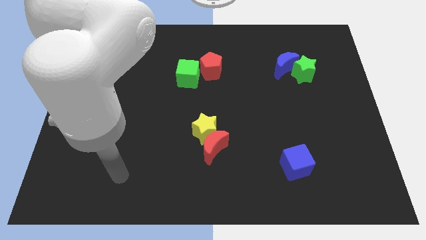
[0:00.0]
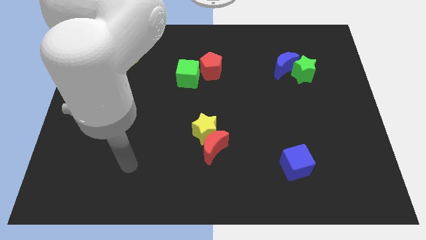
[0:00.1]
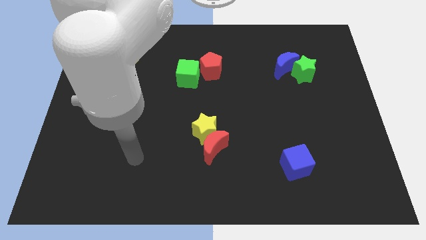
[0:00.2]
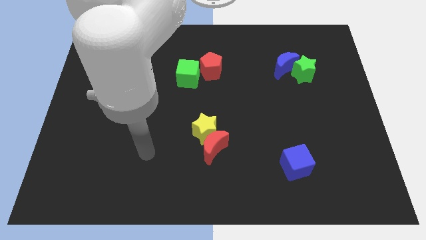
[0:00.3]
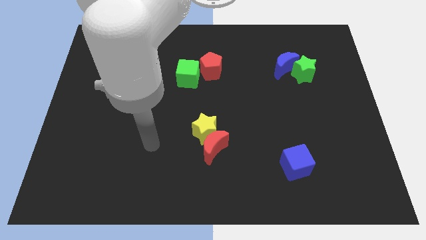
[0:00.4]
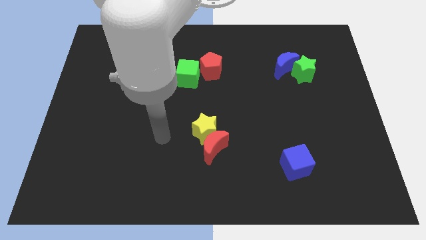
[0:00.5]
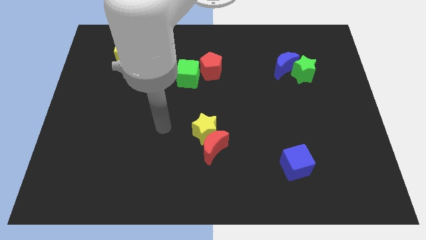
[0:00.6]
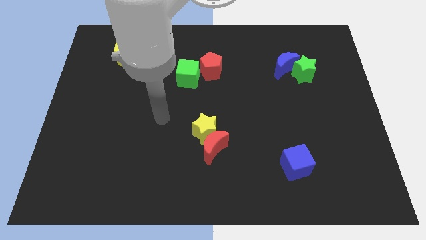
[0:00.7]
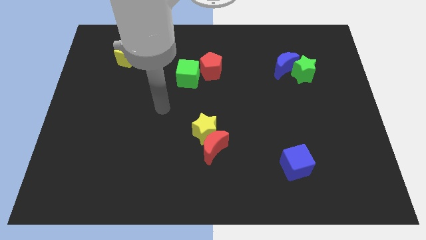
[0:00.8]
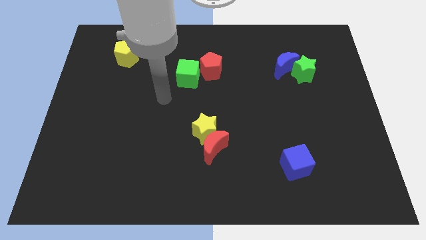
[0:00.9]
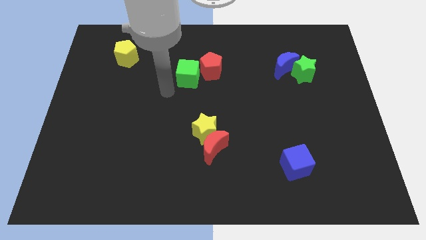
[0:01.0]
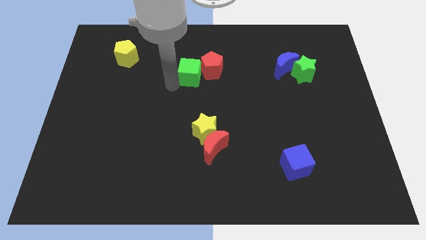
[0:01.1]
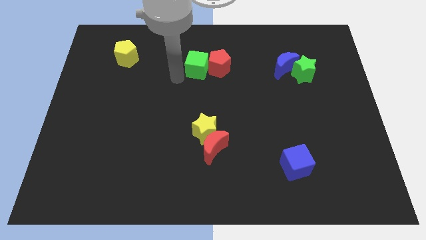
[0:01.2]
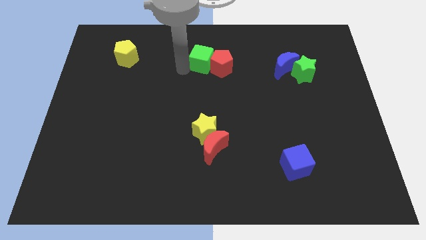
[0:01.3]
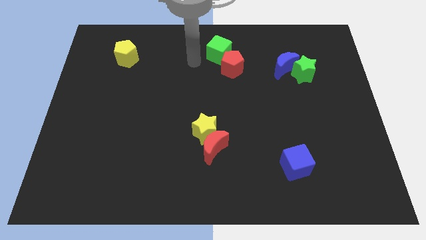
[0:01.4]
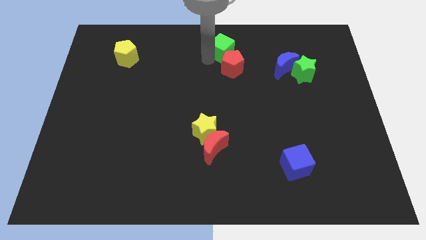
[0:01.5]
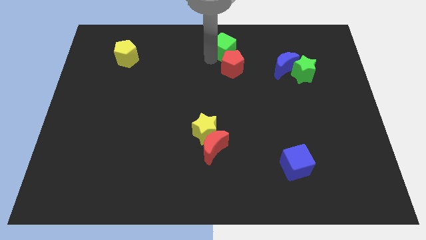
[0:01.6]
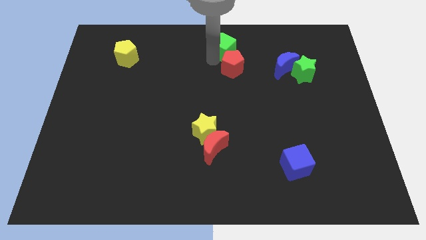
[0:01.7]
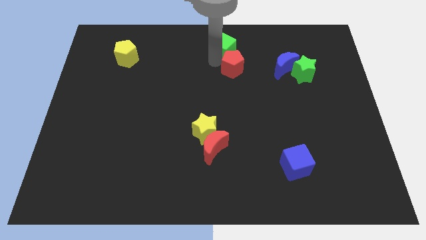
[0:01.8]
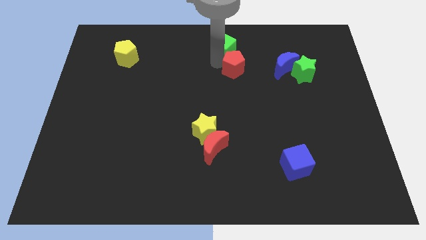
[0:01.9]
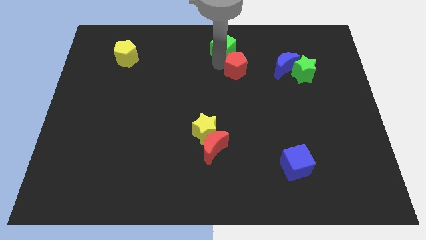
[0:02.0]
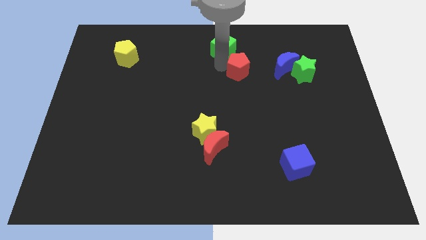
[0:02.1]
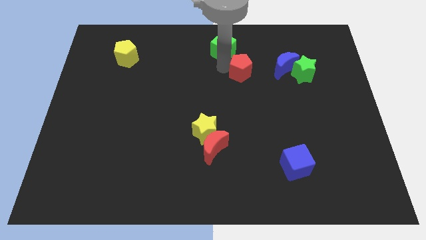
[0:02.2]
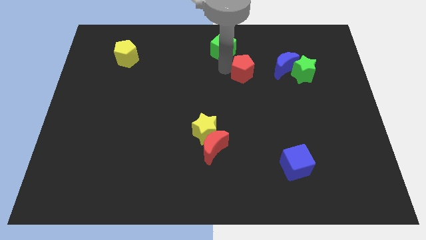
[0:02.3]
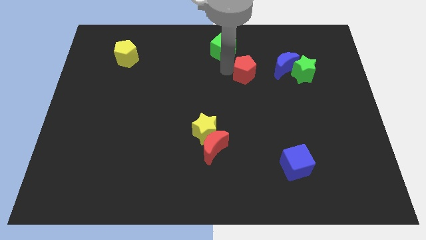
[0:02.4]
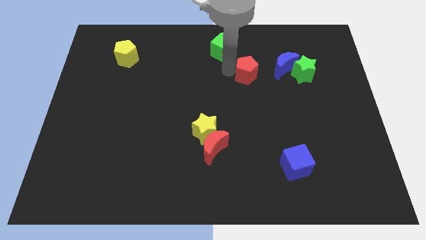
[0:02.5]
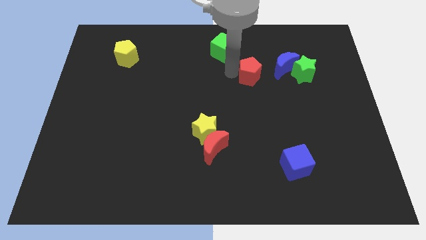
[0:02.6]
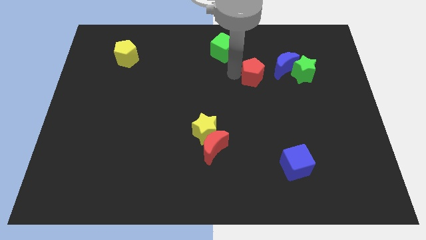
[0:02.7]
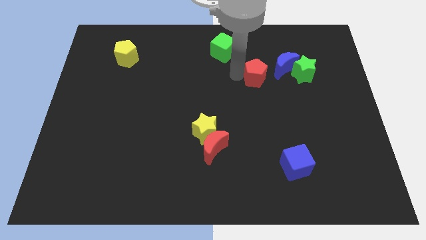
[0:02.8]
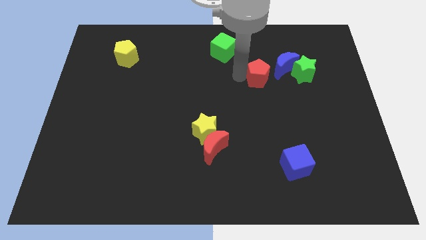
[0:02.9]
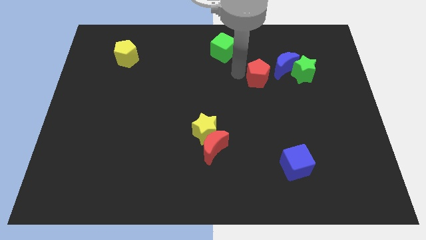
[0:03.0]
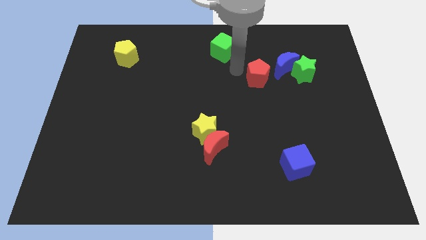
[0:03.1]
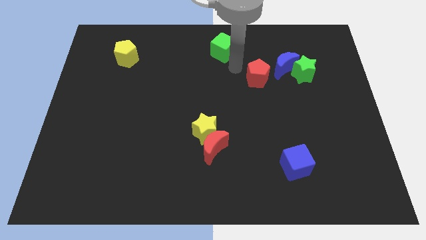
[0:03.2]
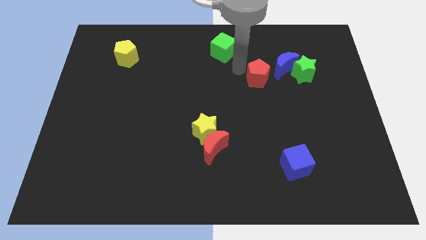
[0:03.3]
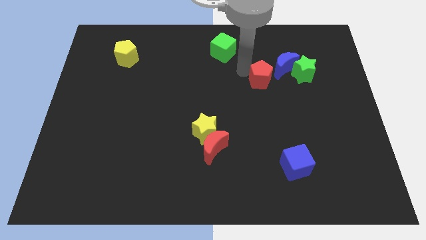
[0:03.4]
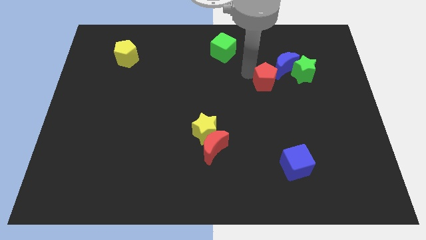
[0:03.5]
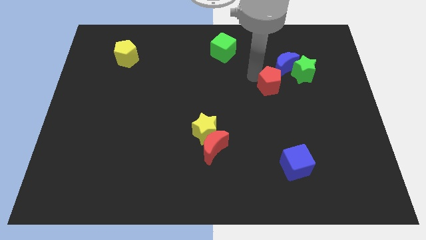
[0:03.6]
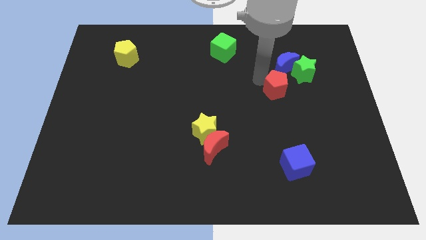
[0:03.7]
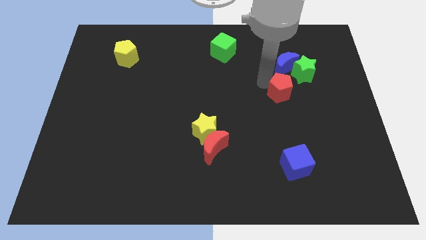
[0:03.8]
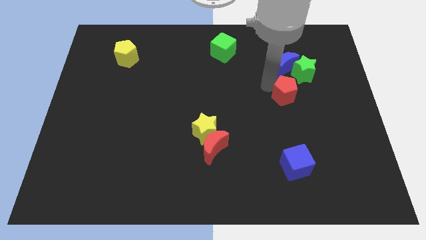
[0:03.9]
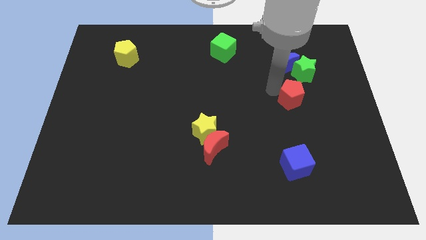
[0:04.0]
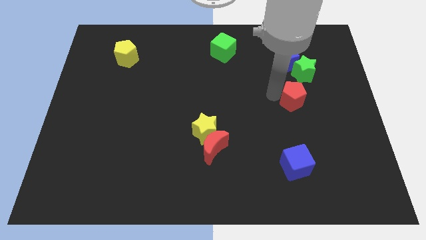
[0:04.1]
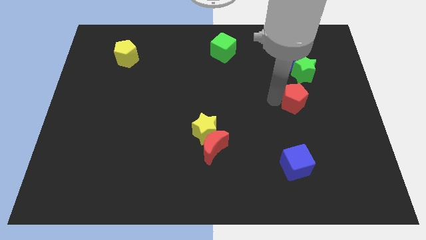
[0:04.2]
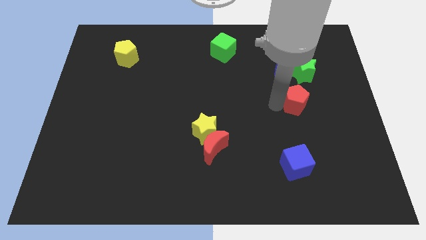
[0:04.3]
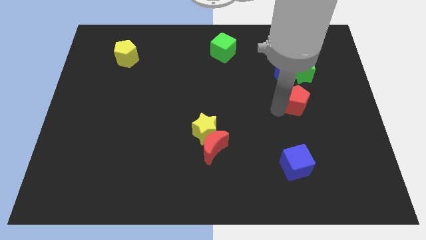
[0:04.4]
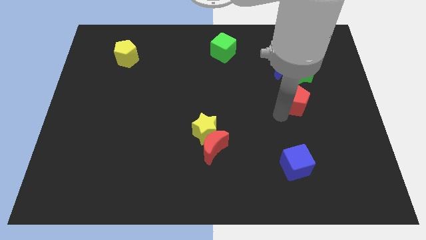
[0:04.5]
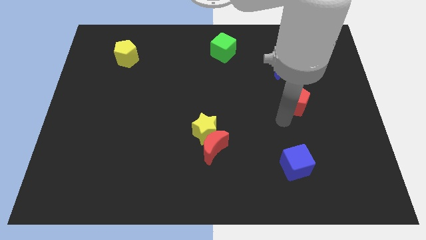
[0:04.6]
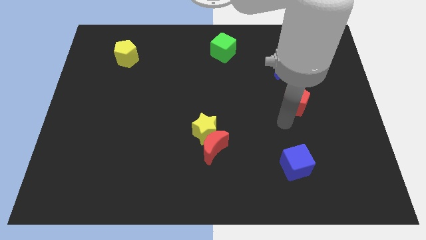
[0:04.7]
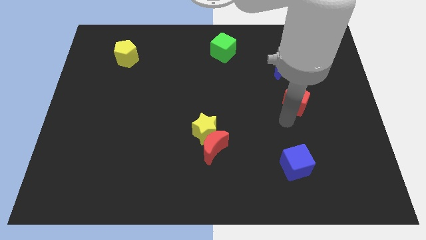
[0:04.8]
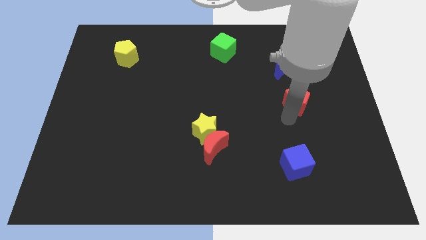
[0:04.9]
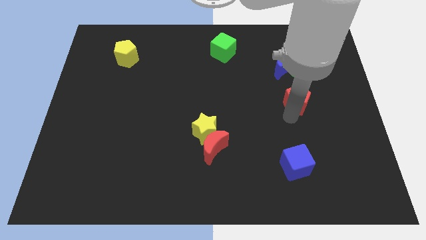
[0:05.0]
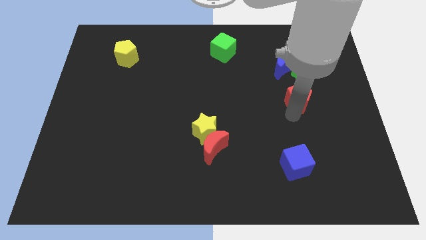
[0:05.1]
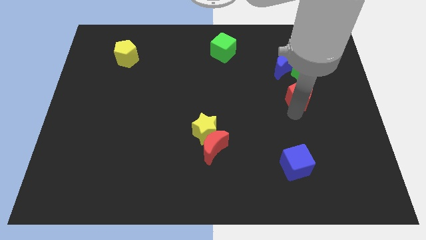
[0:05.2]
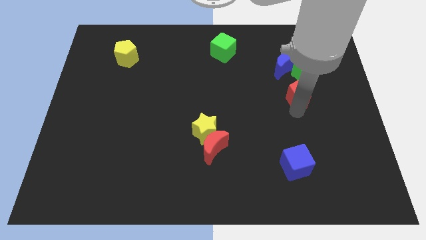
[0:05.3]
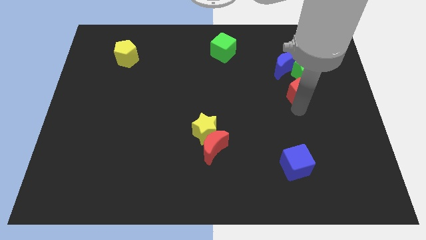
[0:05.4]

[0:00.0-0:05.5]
move the red pentagon diagonally down and to the right of the blue moon

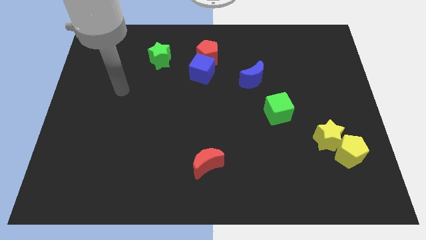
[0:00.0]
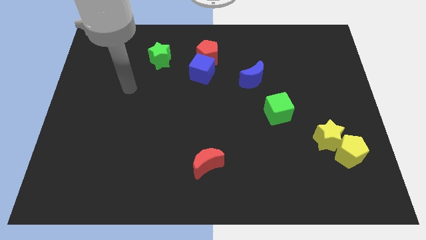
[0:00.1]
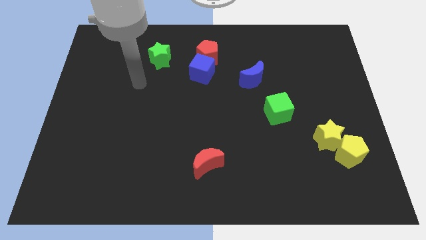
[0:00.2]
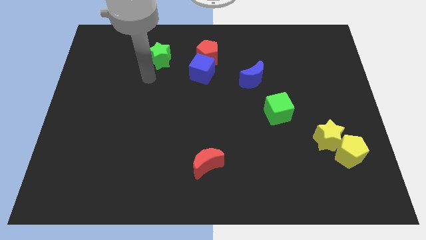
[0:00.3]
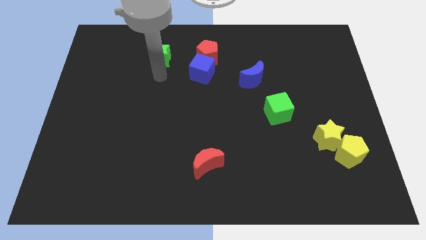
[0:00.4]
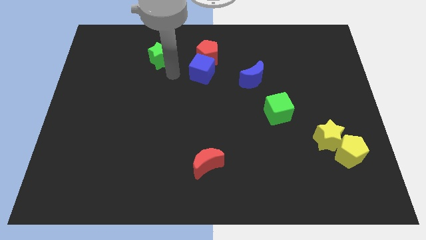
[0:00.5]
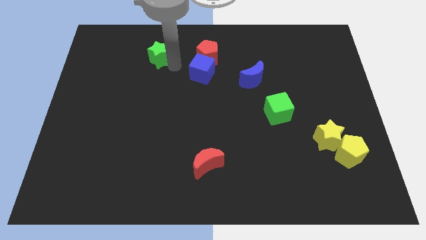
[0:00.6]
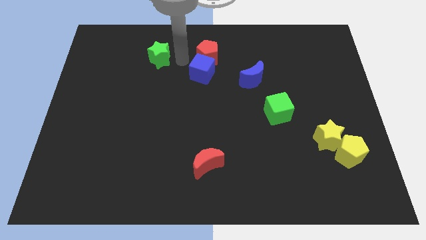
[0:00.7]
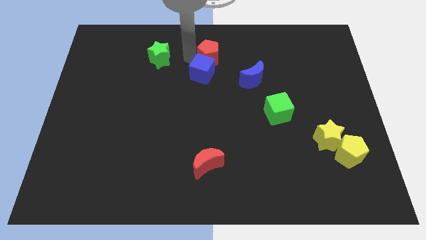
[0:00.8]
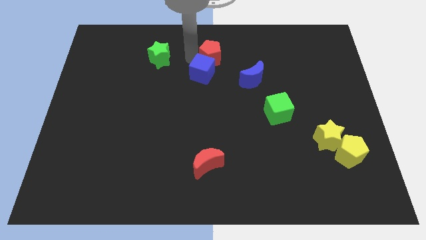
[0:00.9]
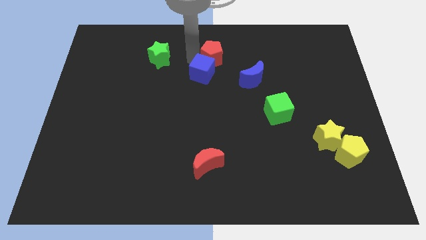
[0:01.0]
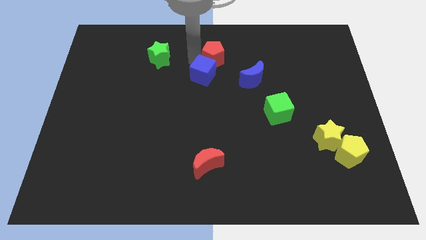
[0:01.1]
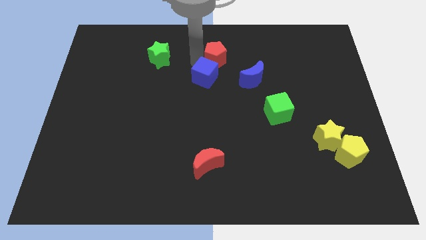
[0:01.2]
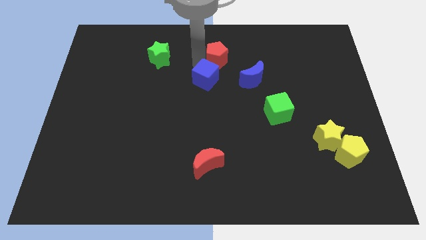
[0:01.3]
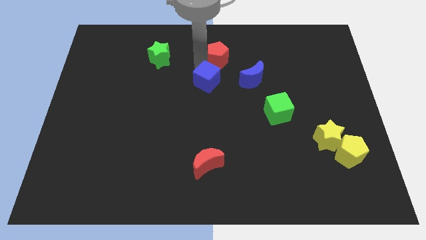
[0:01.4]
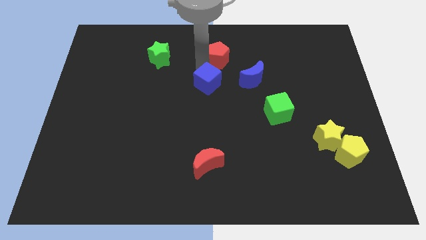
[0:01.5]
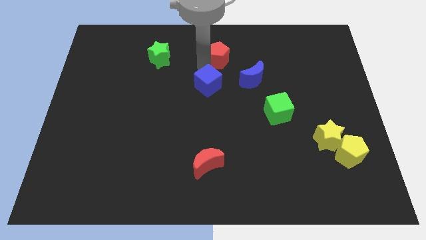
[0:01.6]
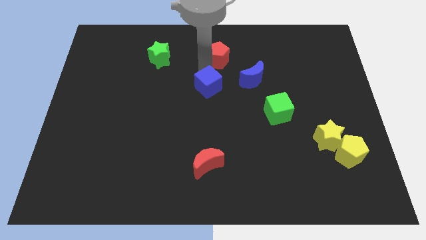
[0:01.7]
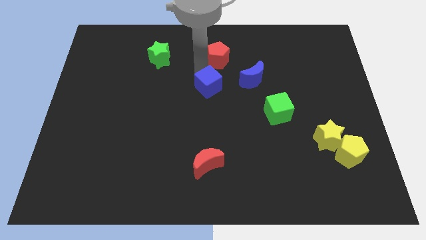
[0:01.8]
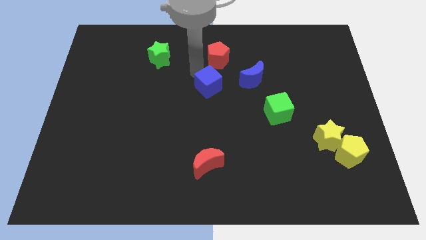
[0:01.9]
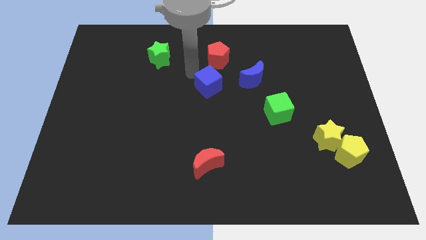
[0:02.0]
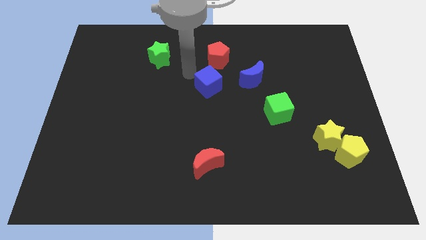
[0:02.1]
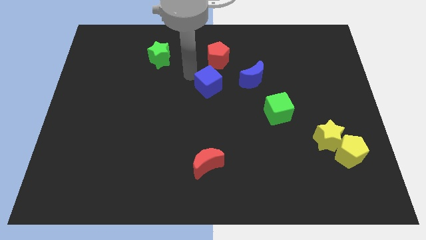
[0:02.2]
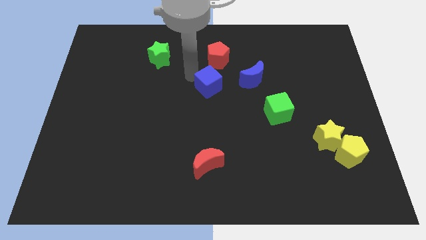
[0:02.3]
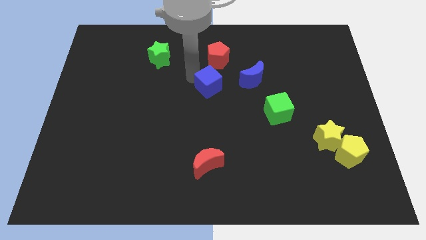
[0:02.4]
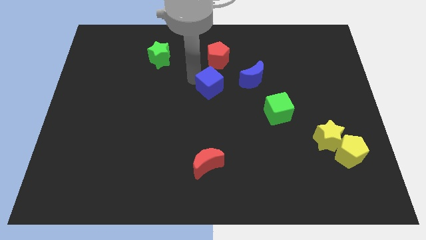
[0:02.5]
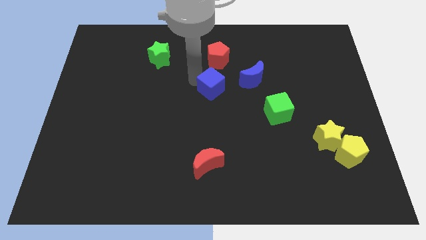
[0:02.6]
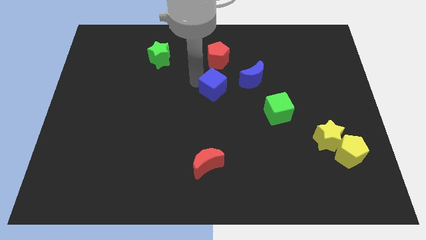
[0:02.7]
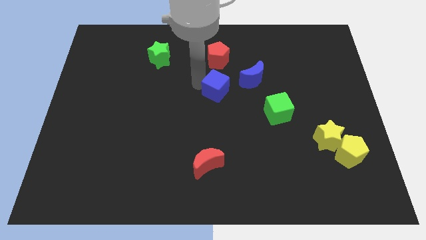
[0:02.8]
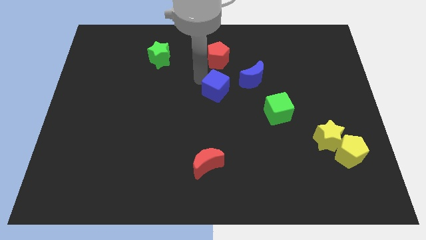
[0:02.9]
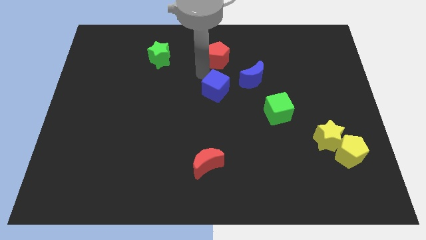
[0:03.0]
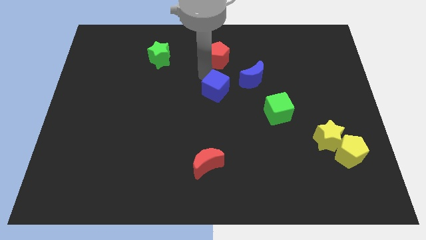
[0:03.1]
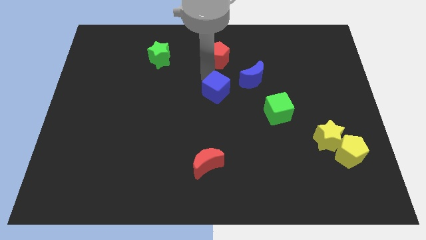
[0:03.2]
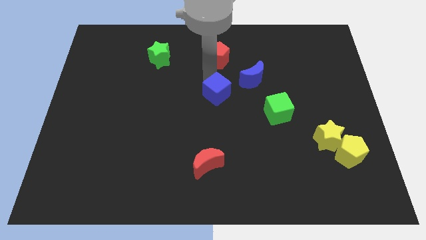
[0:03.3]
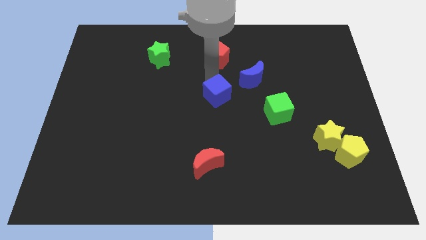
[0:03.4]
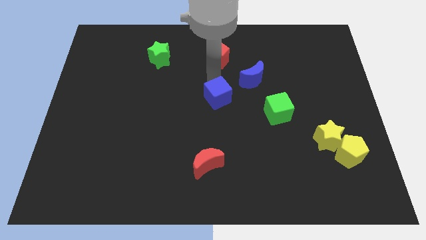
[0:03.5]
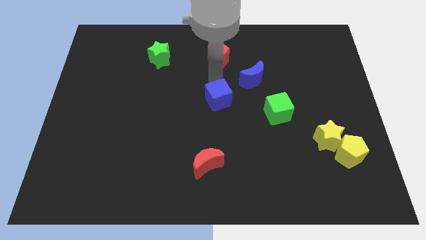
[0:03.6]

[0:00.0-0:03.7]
move the blue cube to the left side of the green cube
